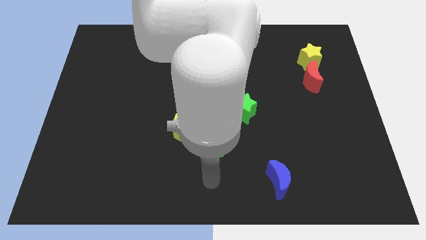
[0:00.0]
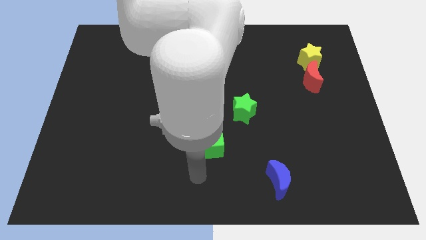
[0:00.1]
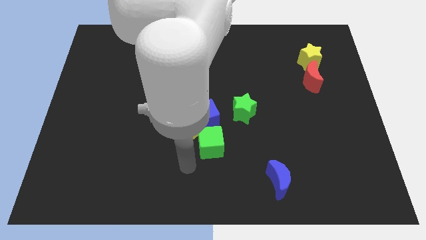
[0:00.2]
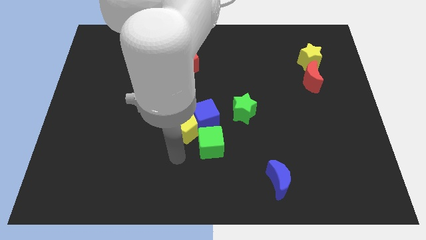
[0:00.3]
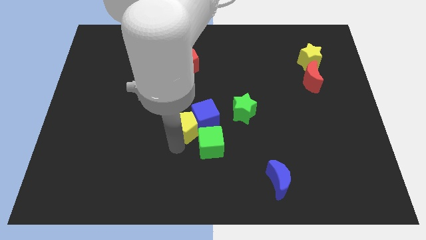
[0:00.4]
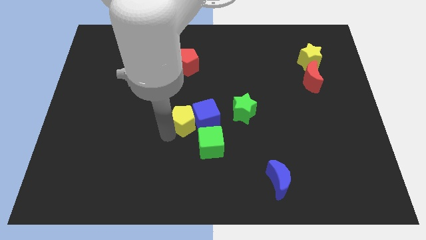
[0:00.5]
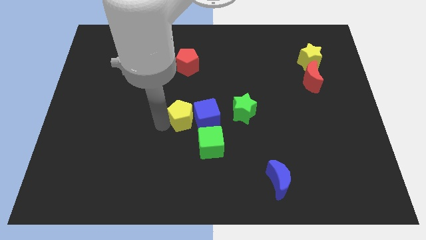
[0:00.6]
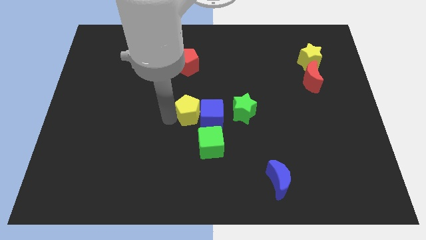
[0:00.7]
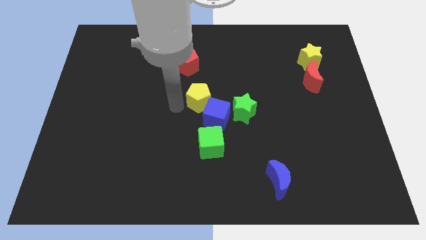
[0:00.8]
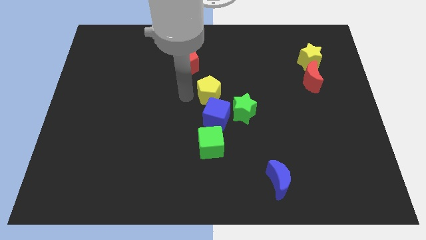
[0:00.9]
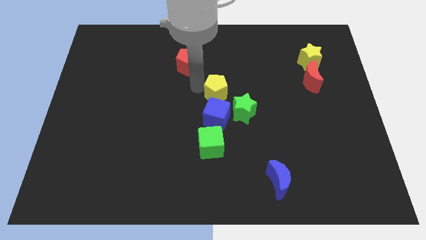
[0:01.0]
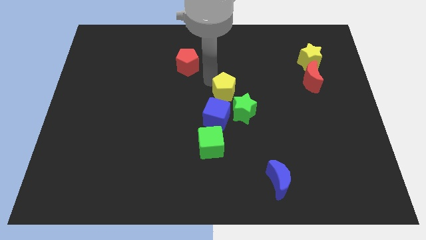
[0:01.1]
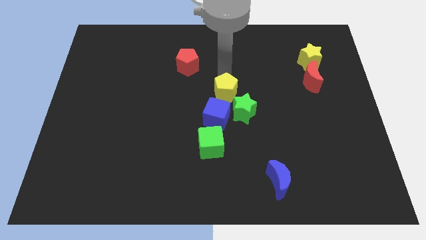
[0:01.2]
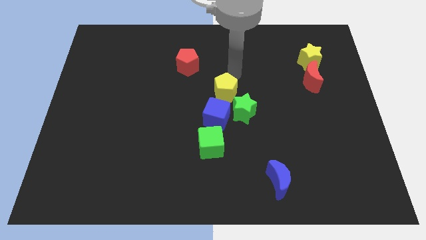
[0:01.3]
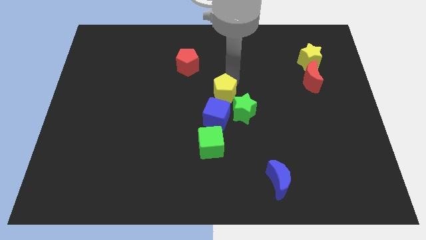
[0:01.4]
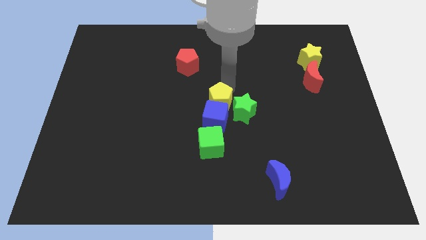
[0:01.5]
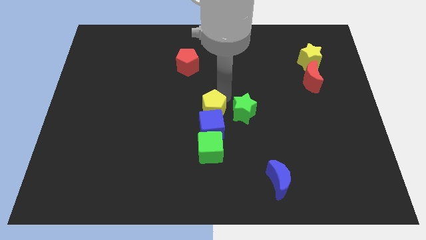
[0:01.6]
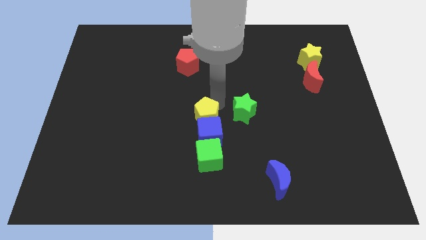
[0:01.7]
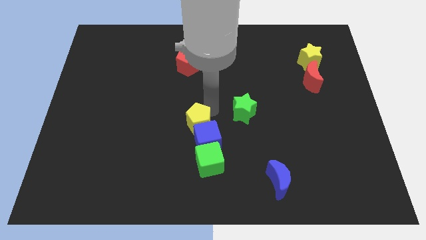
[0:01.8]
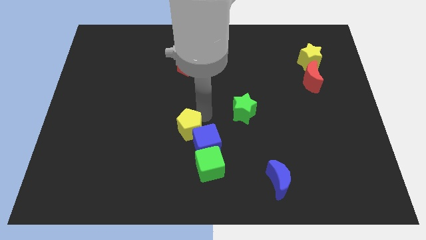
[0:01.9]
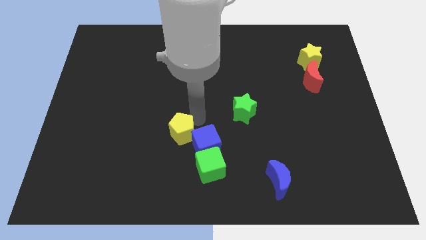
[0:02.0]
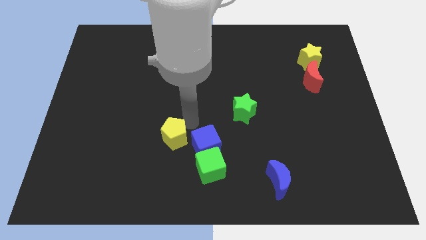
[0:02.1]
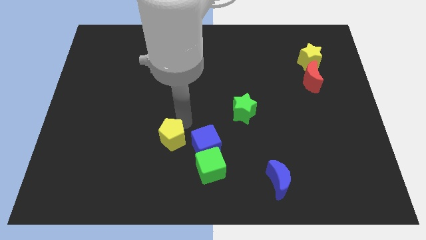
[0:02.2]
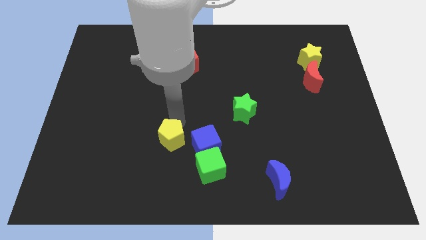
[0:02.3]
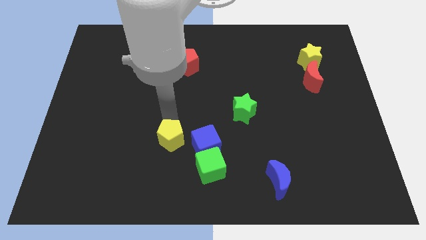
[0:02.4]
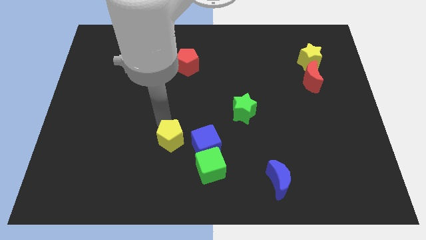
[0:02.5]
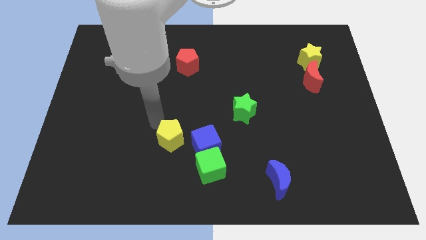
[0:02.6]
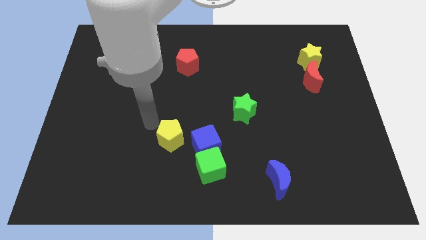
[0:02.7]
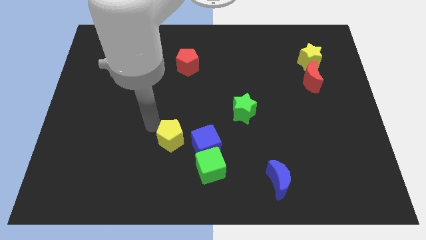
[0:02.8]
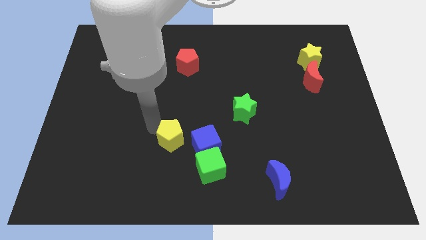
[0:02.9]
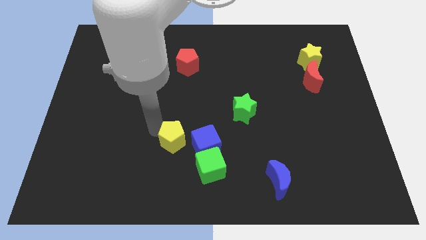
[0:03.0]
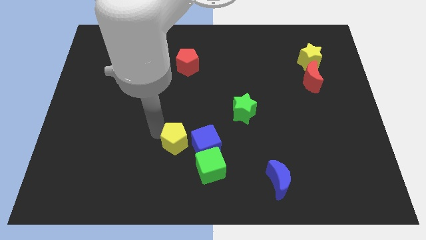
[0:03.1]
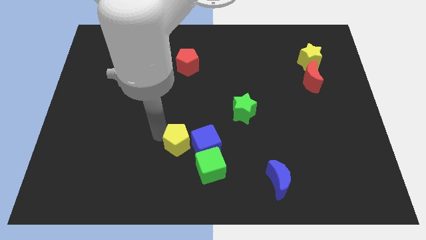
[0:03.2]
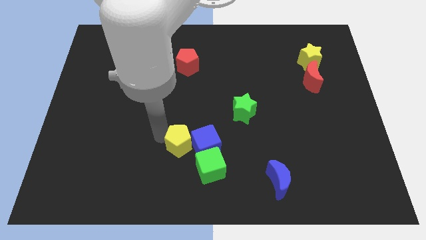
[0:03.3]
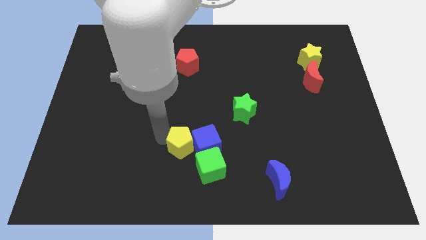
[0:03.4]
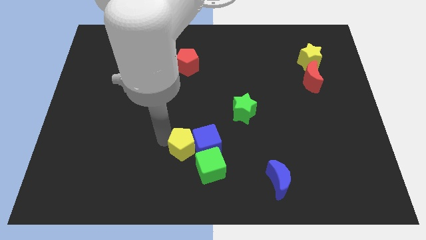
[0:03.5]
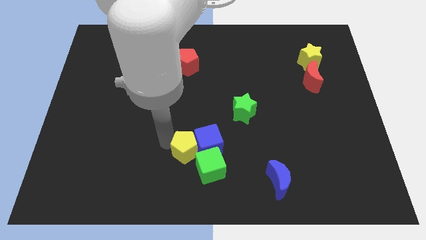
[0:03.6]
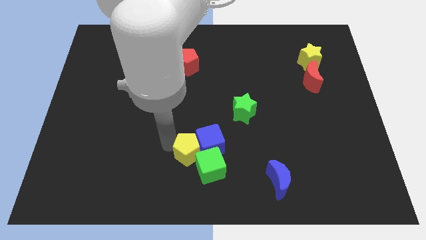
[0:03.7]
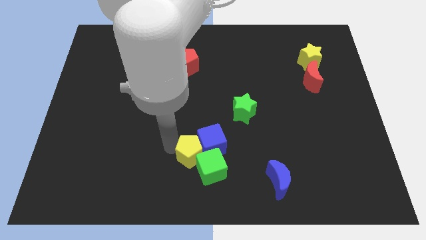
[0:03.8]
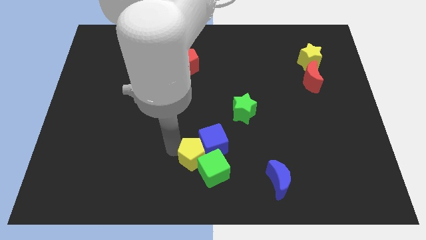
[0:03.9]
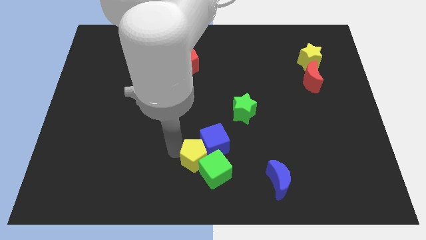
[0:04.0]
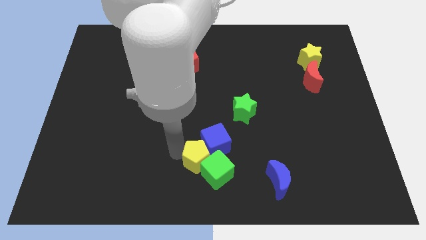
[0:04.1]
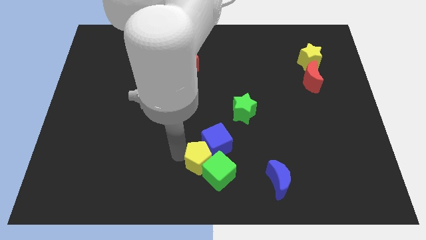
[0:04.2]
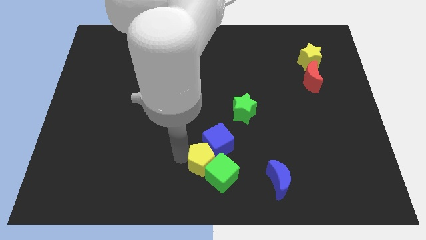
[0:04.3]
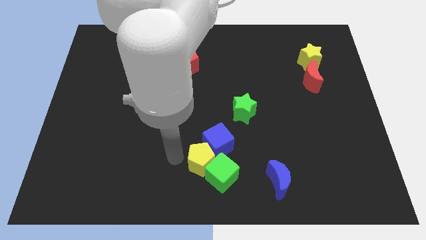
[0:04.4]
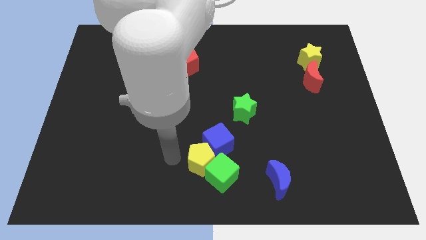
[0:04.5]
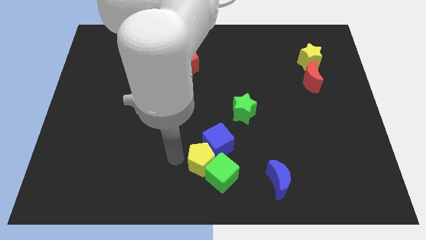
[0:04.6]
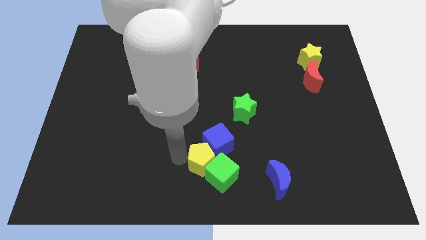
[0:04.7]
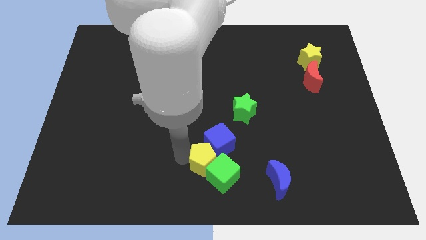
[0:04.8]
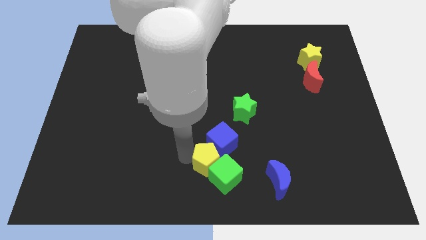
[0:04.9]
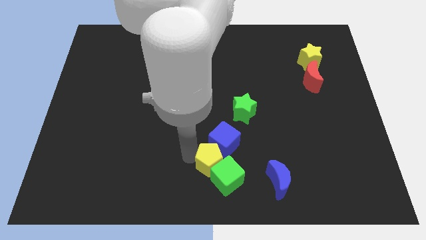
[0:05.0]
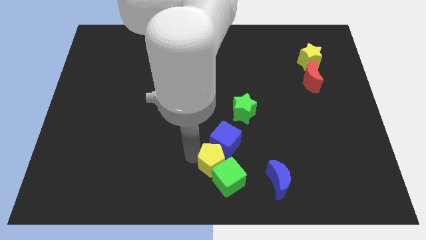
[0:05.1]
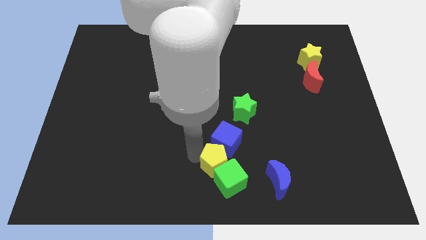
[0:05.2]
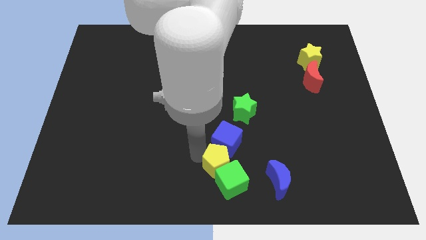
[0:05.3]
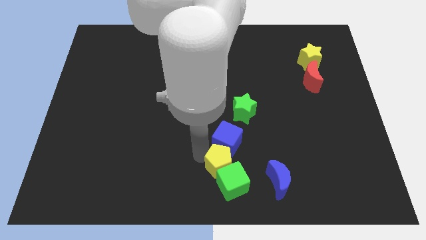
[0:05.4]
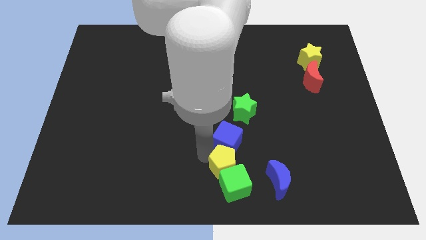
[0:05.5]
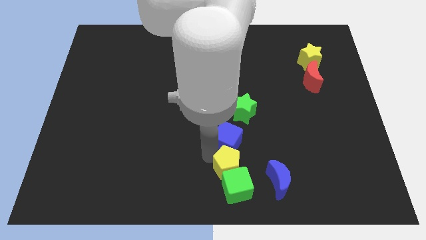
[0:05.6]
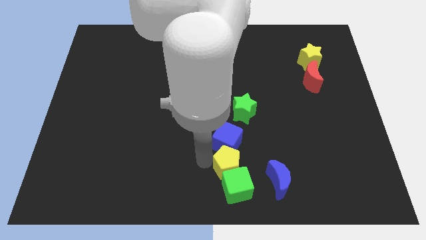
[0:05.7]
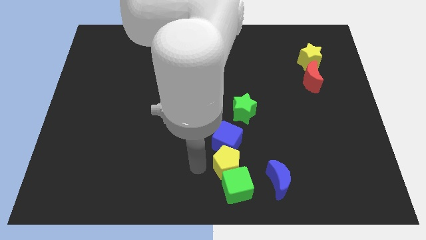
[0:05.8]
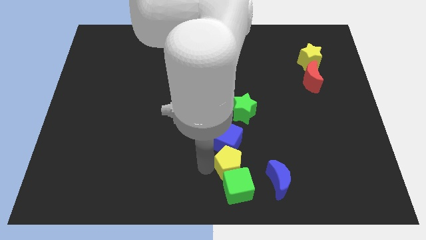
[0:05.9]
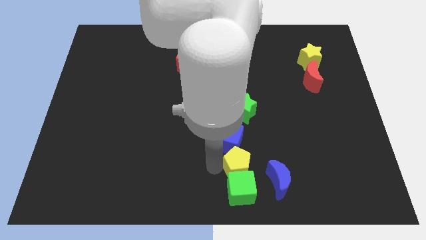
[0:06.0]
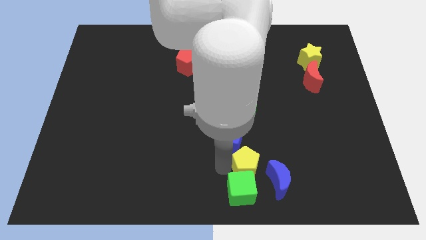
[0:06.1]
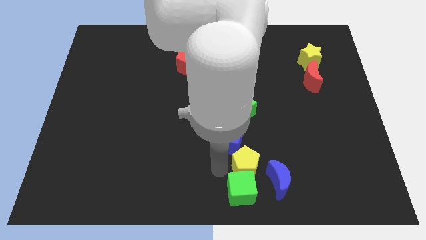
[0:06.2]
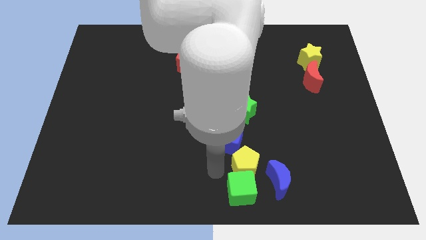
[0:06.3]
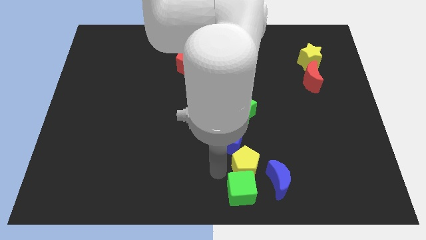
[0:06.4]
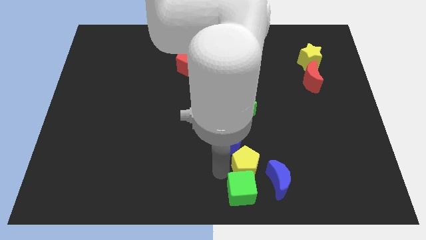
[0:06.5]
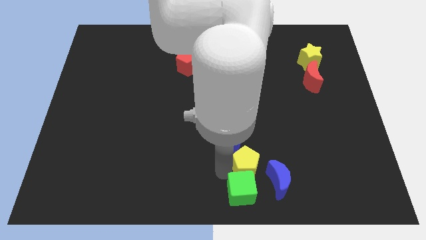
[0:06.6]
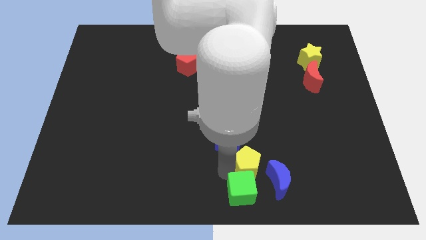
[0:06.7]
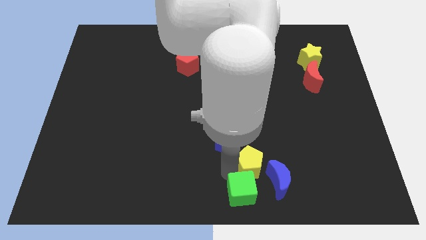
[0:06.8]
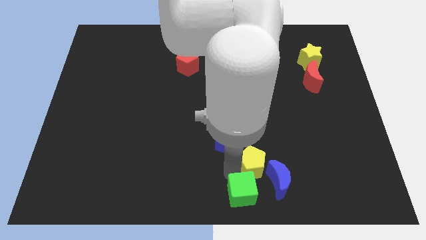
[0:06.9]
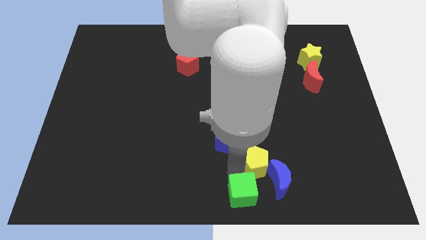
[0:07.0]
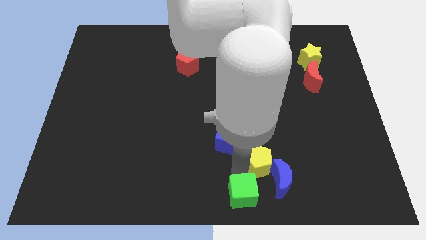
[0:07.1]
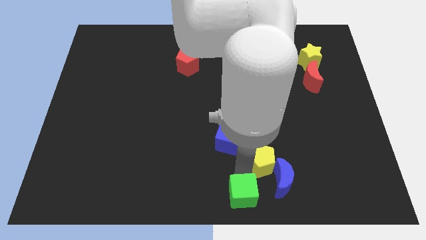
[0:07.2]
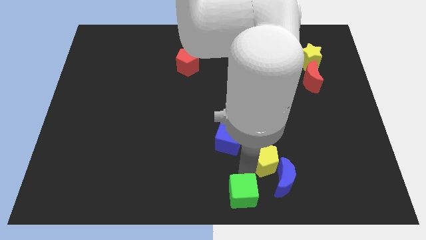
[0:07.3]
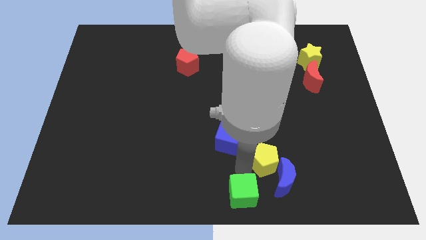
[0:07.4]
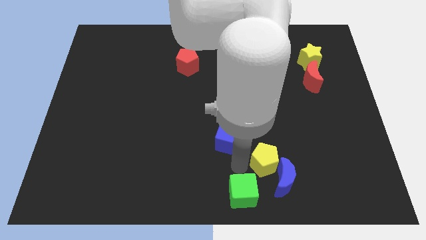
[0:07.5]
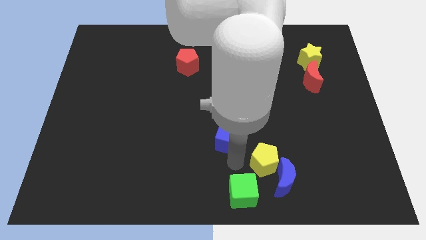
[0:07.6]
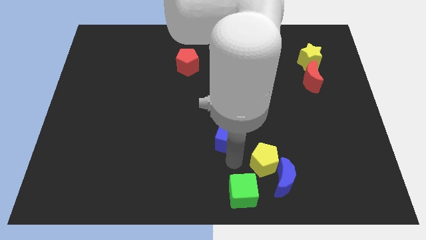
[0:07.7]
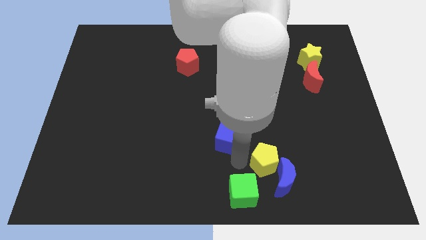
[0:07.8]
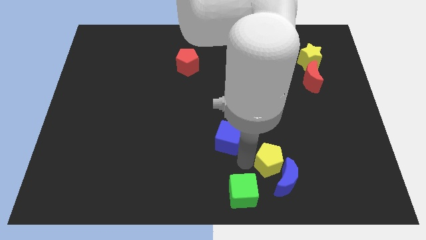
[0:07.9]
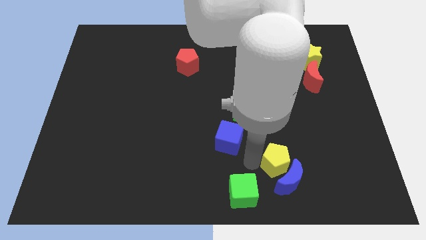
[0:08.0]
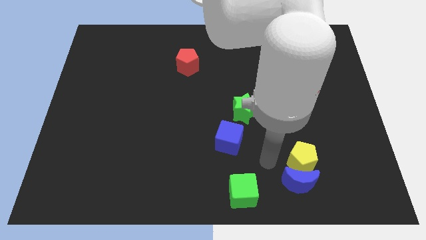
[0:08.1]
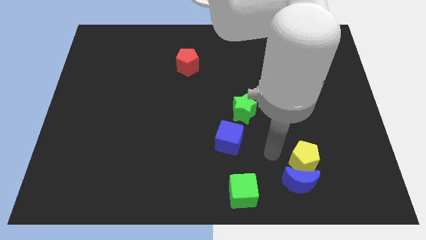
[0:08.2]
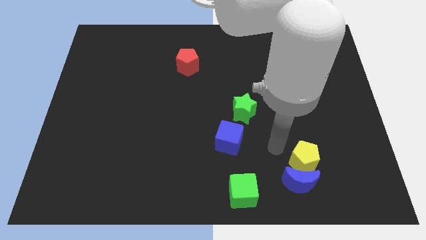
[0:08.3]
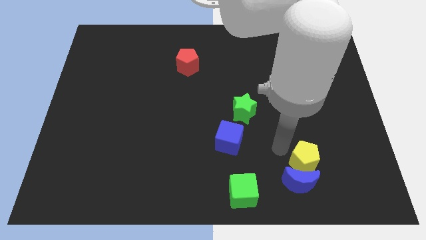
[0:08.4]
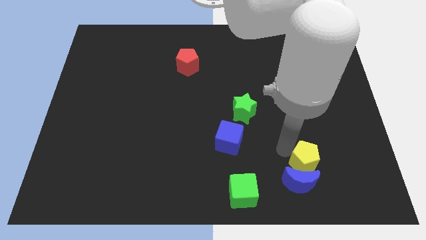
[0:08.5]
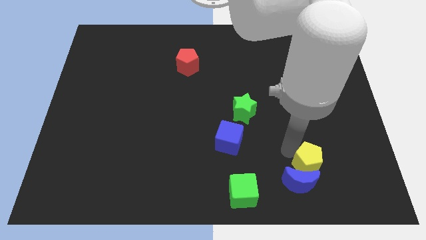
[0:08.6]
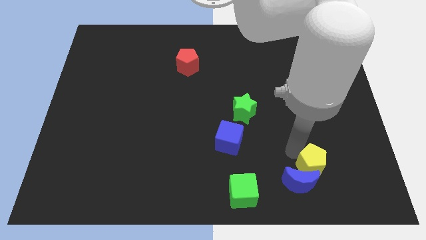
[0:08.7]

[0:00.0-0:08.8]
move the yellow pentagon right of the blue moon
